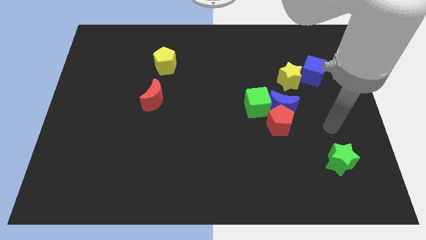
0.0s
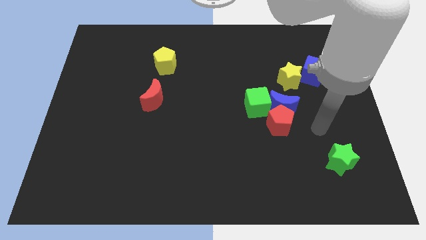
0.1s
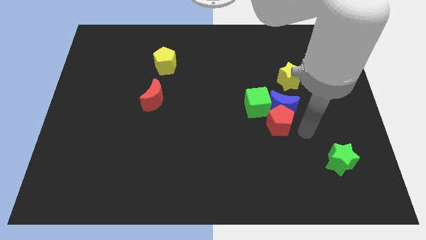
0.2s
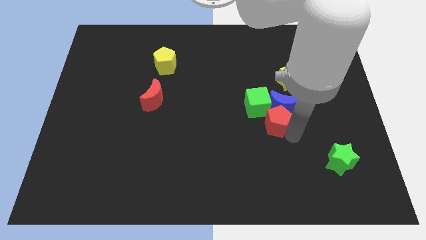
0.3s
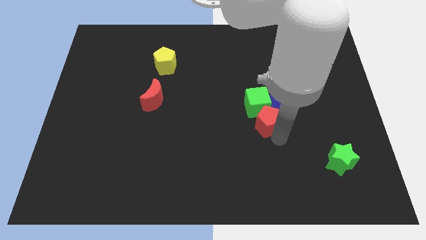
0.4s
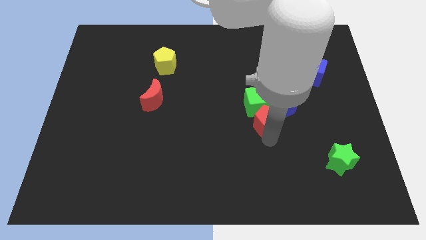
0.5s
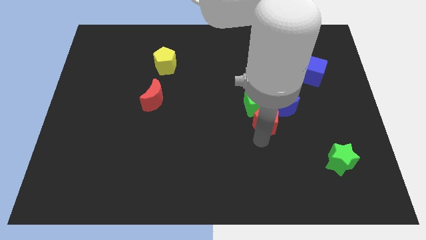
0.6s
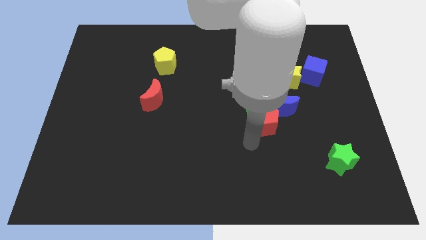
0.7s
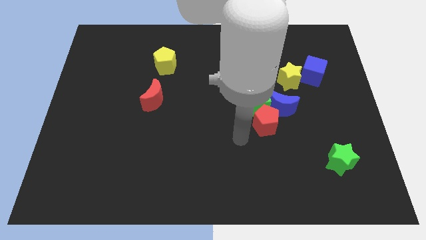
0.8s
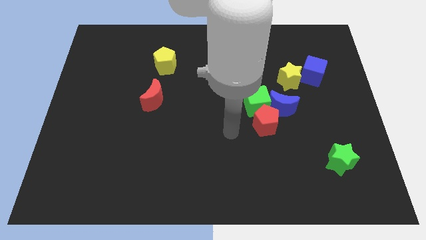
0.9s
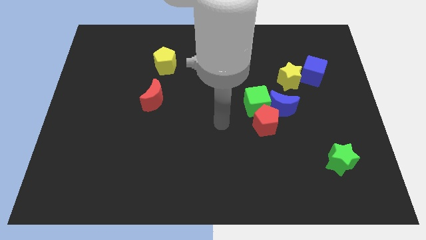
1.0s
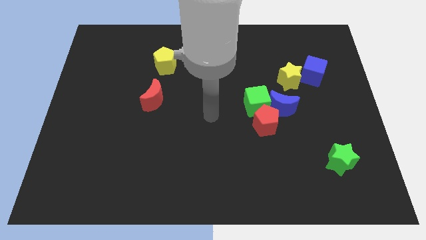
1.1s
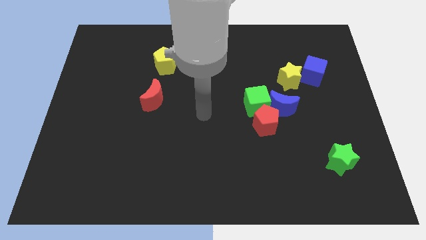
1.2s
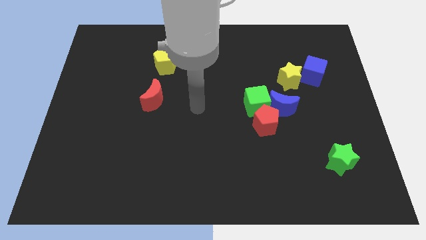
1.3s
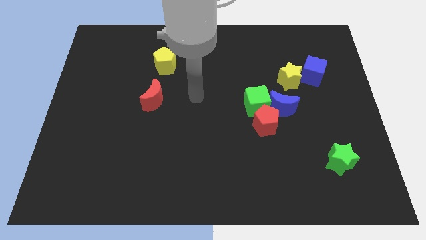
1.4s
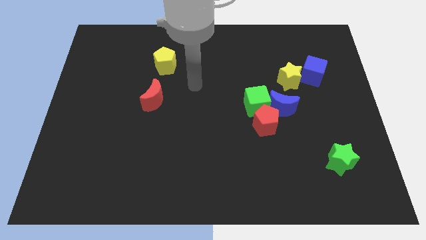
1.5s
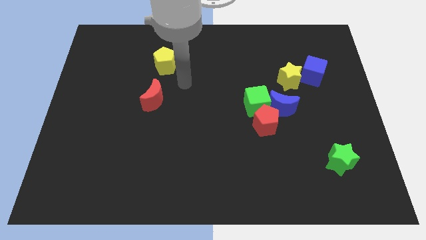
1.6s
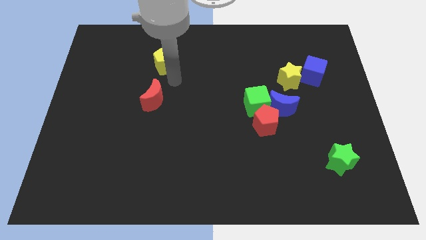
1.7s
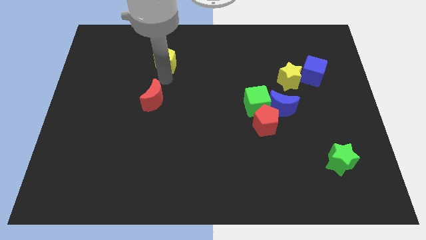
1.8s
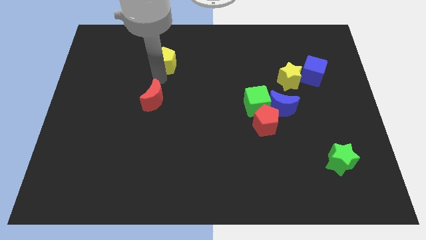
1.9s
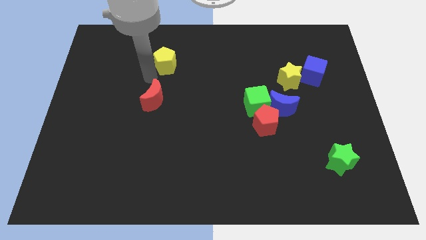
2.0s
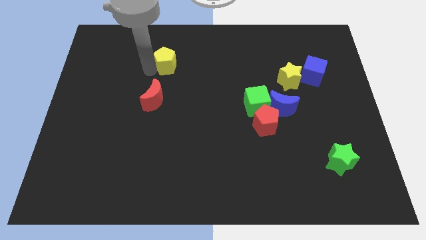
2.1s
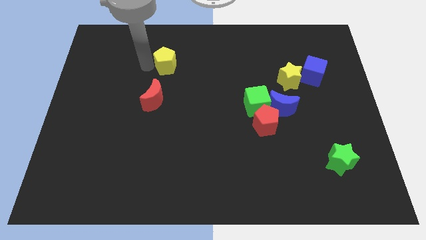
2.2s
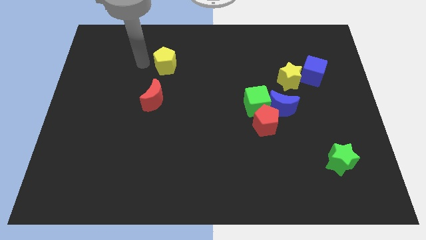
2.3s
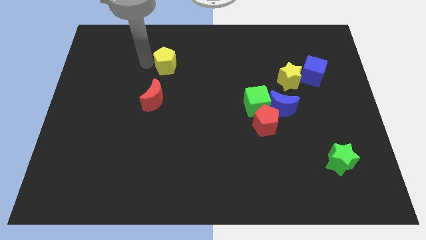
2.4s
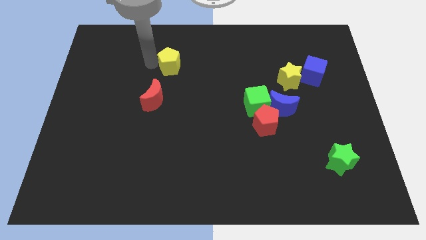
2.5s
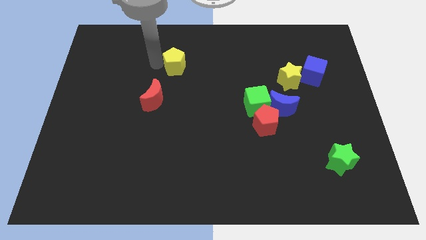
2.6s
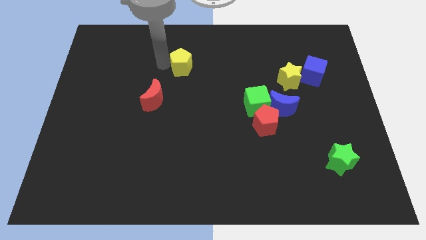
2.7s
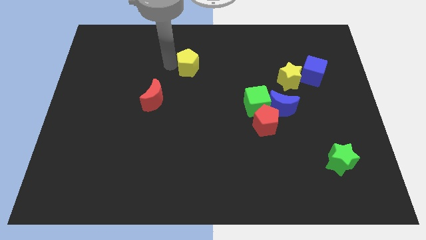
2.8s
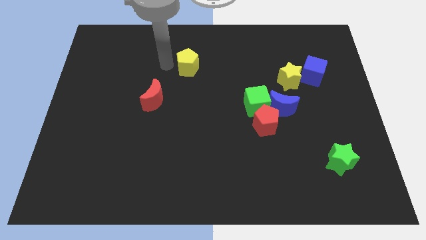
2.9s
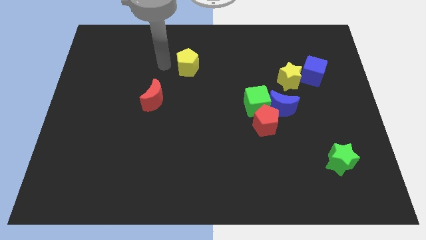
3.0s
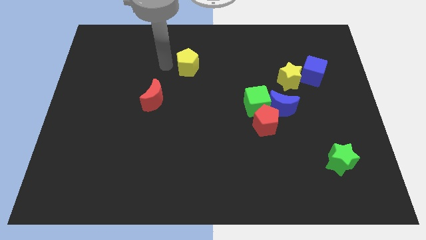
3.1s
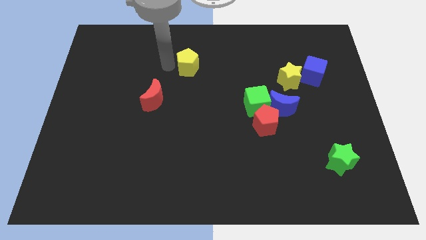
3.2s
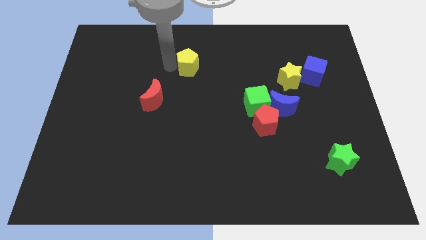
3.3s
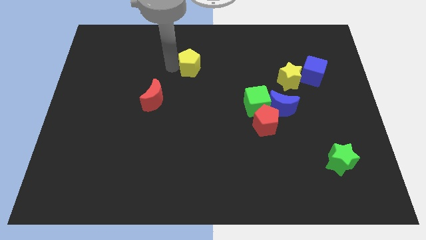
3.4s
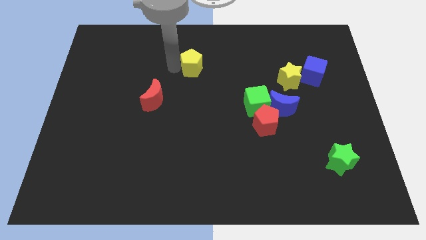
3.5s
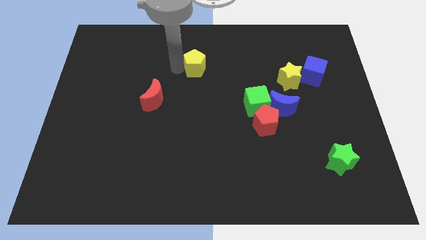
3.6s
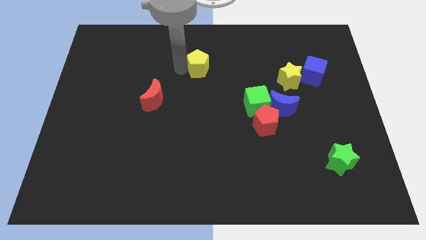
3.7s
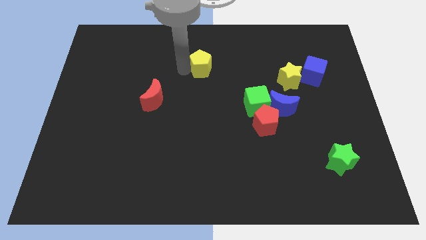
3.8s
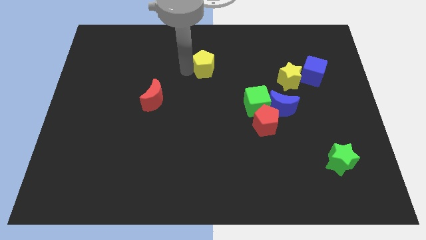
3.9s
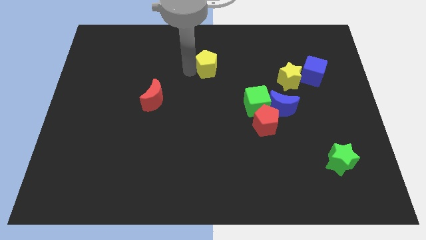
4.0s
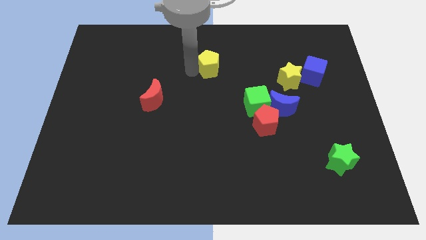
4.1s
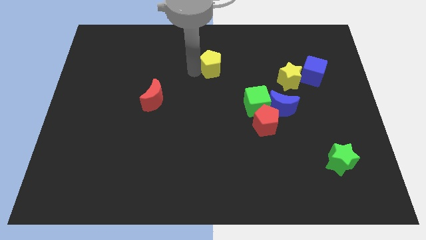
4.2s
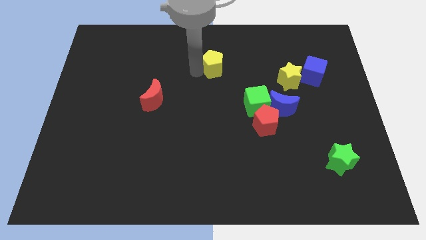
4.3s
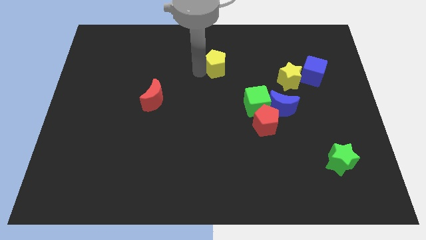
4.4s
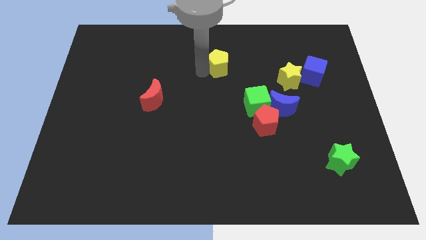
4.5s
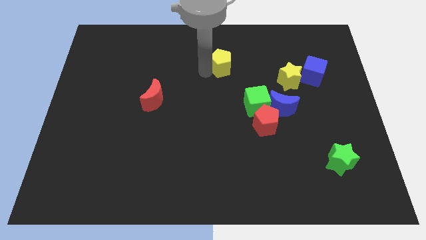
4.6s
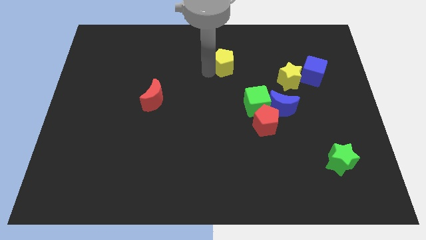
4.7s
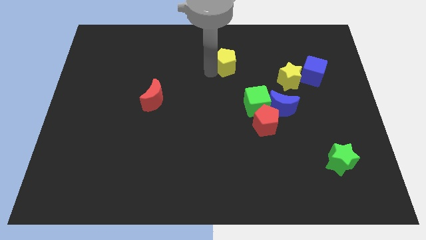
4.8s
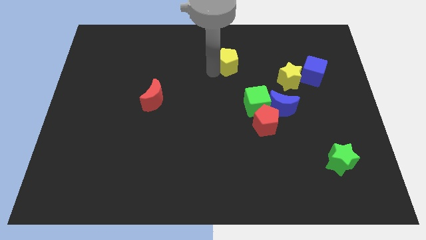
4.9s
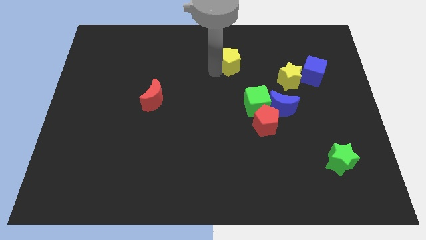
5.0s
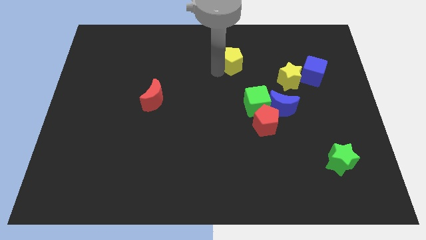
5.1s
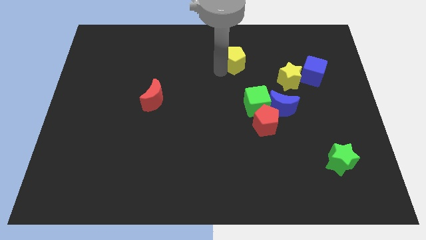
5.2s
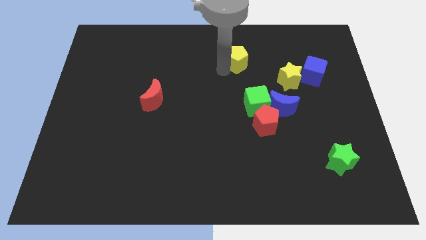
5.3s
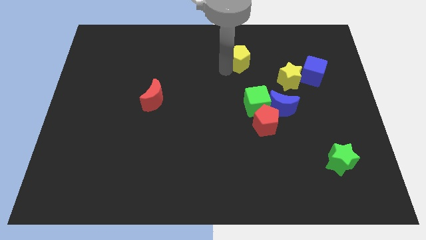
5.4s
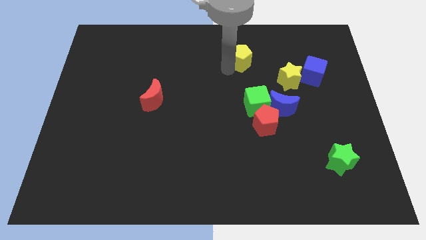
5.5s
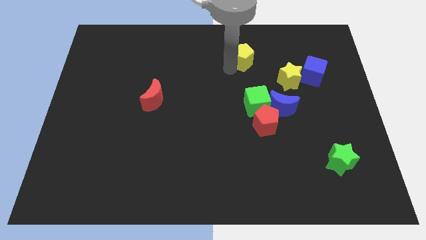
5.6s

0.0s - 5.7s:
move the yellow pentagon right

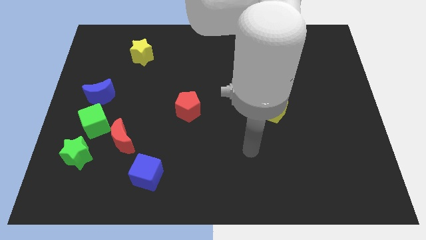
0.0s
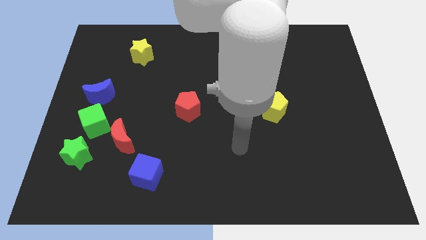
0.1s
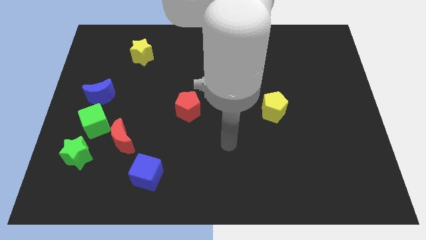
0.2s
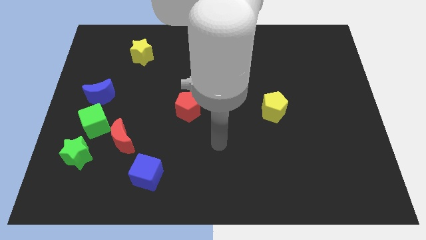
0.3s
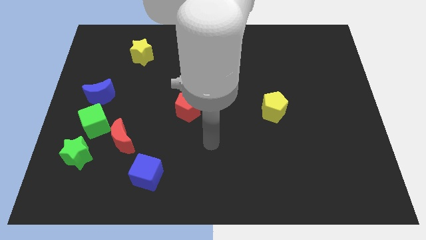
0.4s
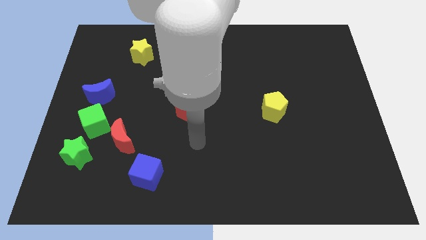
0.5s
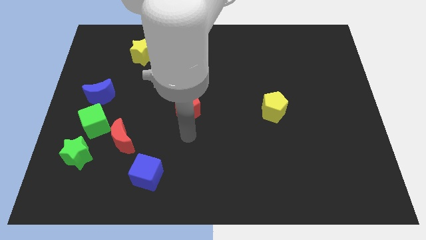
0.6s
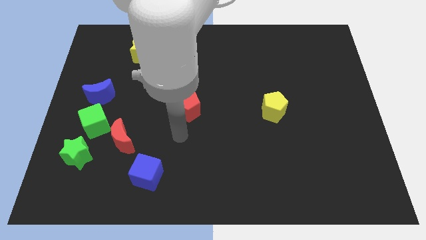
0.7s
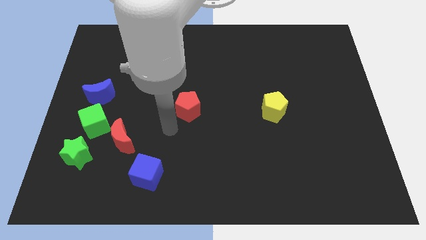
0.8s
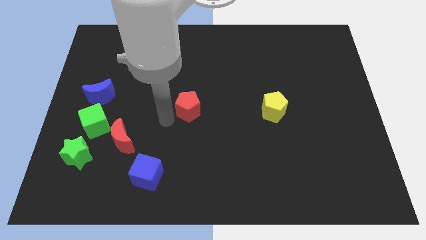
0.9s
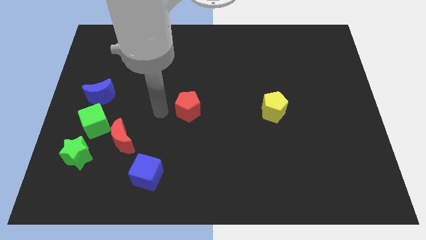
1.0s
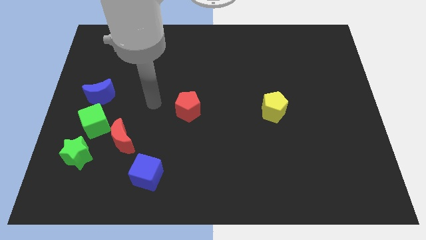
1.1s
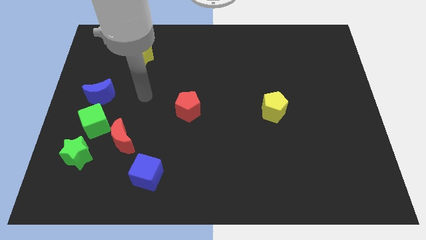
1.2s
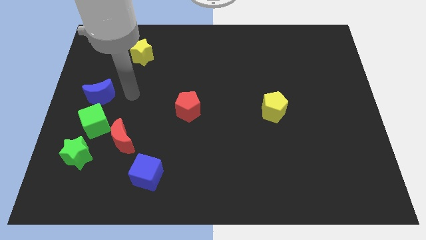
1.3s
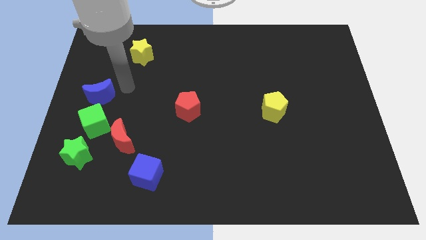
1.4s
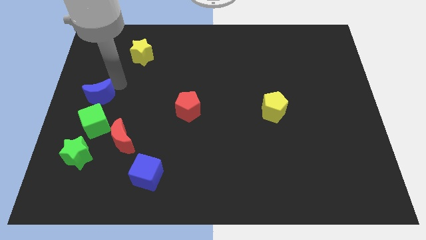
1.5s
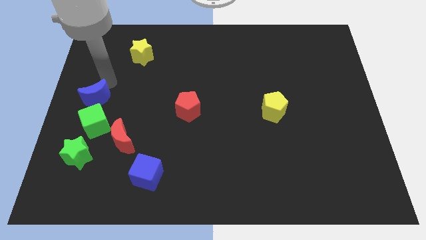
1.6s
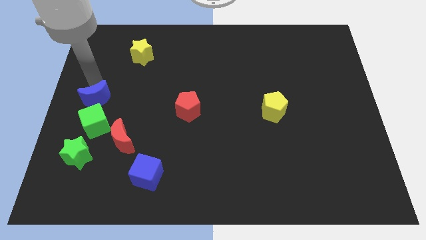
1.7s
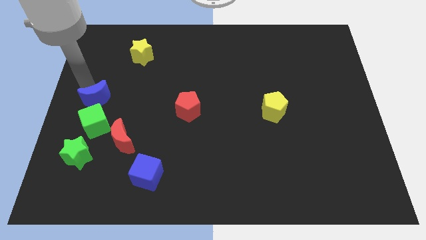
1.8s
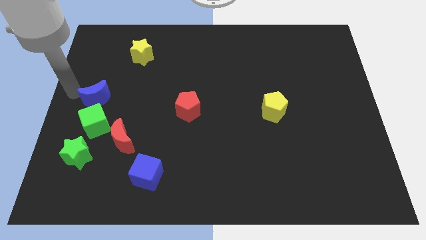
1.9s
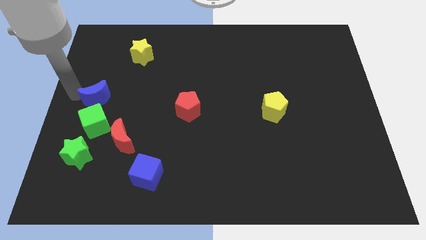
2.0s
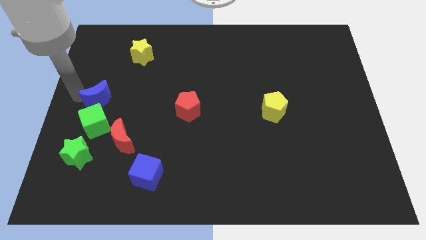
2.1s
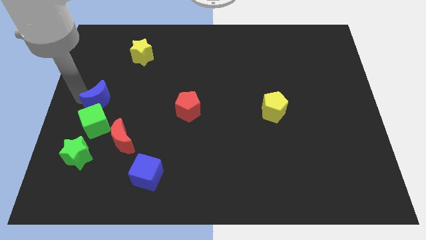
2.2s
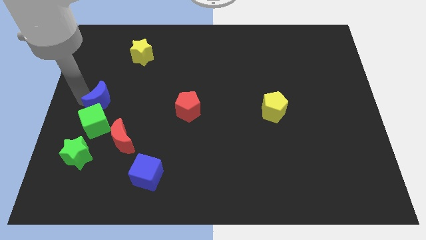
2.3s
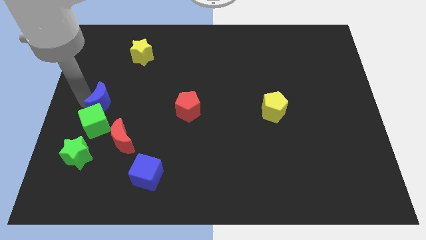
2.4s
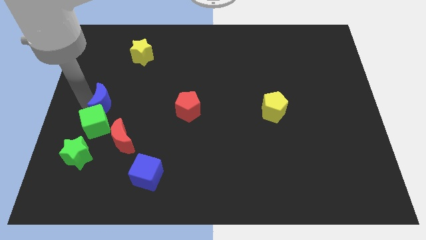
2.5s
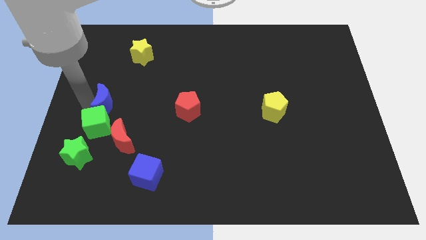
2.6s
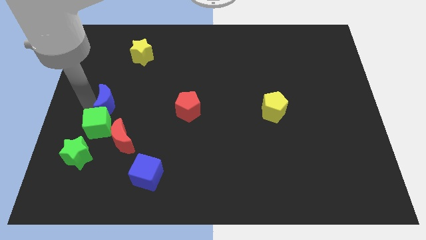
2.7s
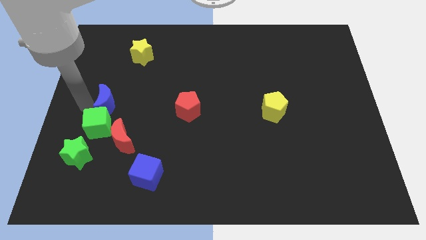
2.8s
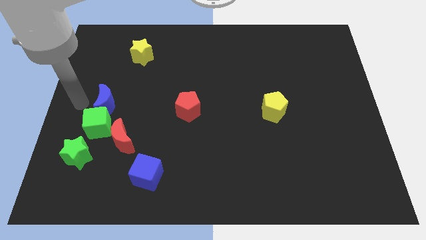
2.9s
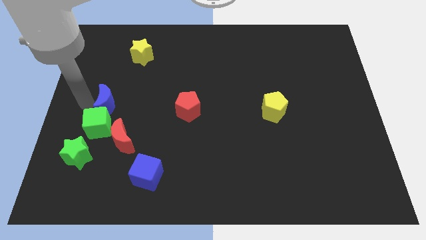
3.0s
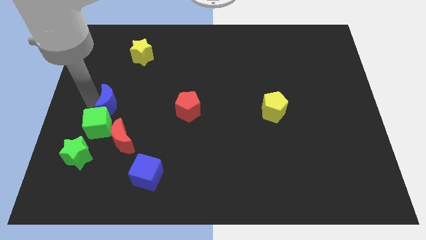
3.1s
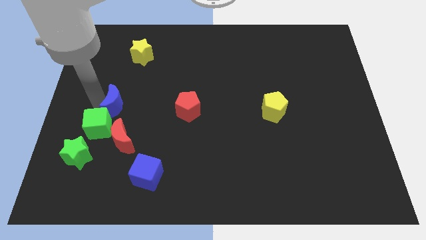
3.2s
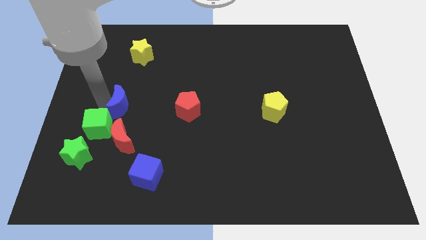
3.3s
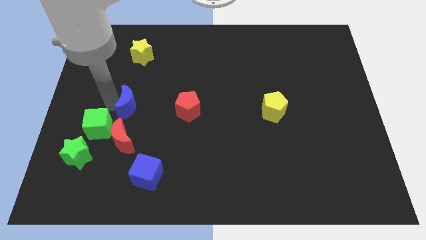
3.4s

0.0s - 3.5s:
push the blue moon right slightly
